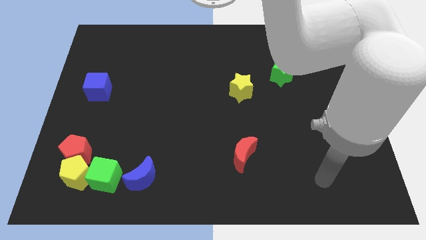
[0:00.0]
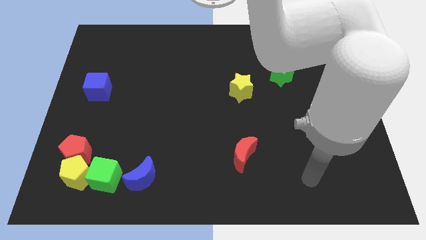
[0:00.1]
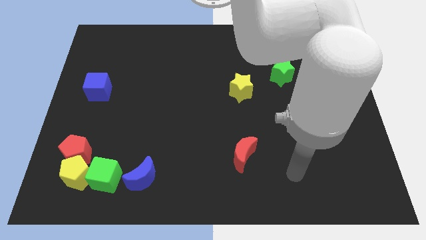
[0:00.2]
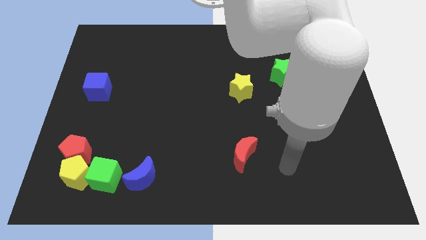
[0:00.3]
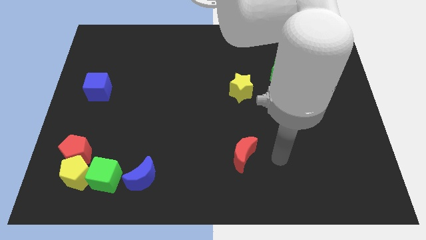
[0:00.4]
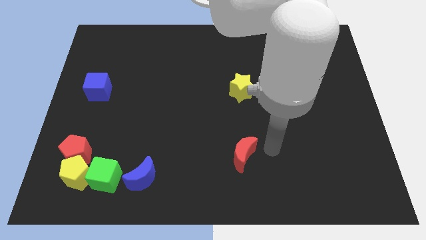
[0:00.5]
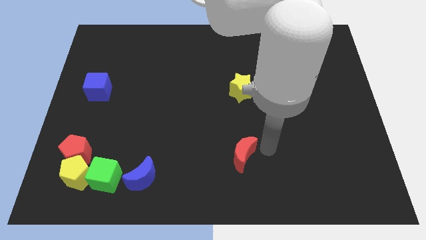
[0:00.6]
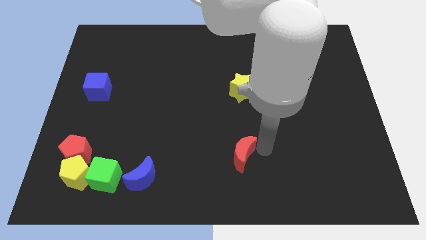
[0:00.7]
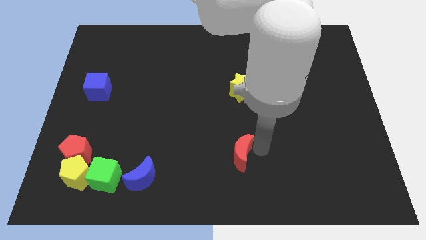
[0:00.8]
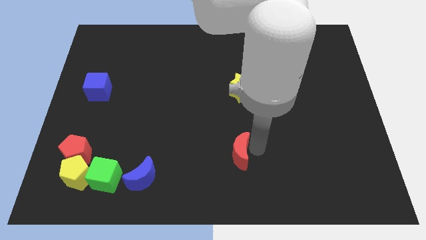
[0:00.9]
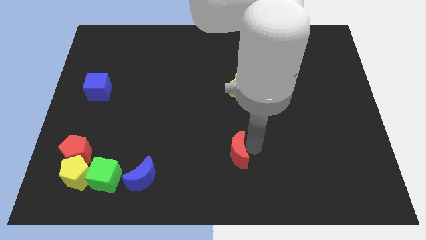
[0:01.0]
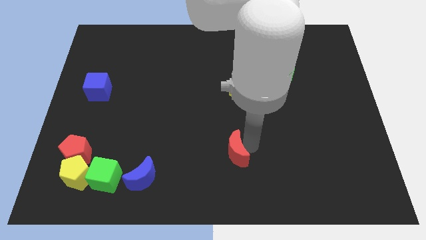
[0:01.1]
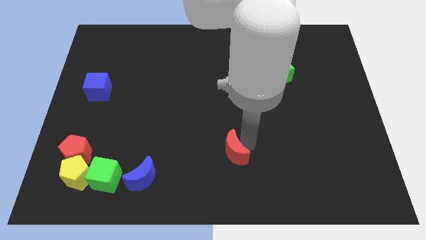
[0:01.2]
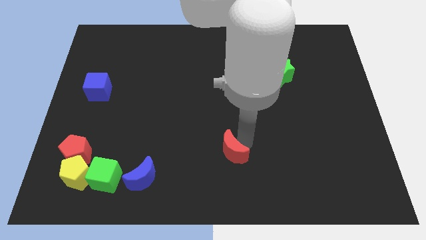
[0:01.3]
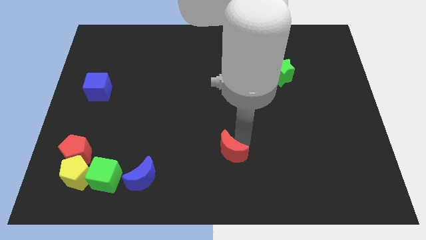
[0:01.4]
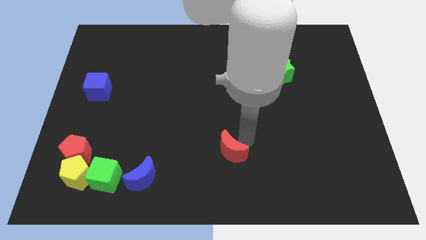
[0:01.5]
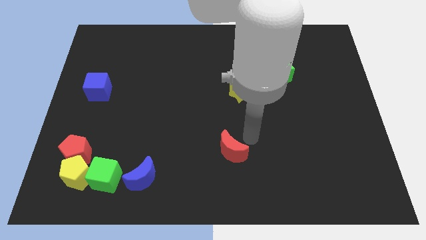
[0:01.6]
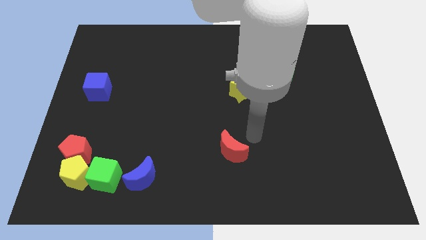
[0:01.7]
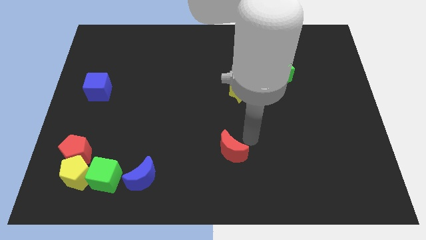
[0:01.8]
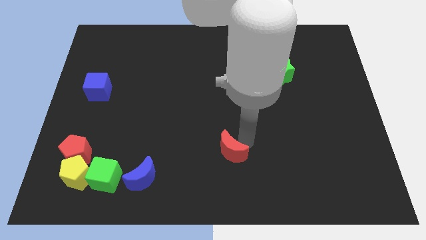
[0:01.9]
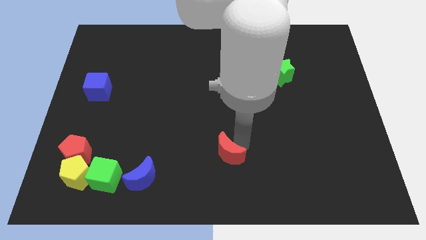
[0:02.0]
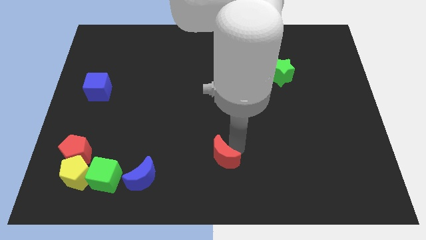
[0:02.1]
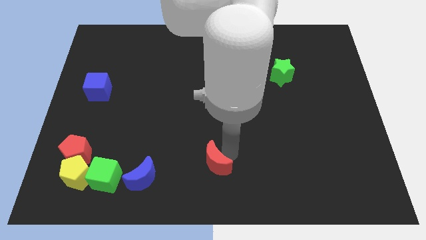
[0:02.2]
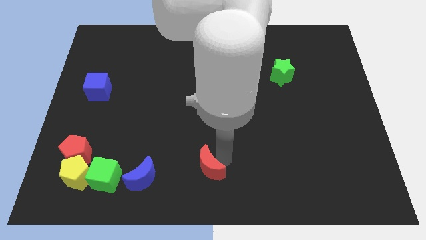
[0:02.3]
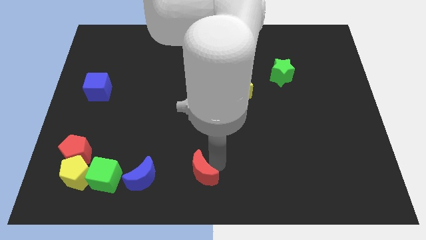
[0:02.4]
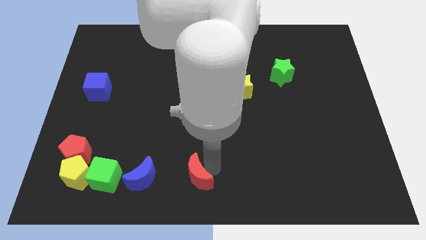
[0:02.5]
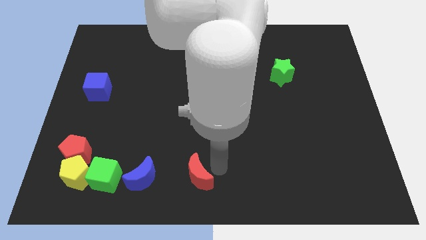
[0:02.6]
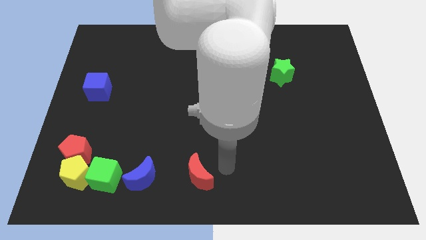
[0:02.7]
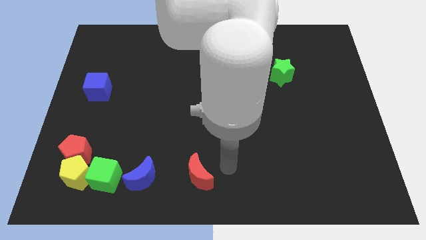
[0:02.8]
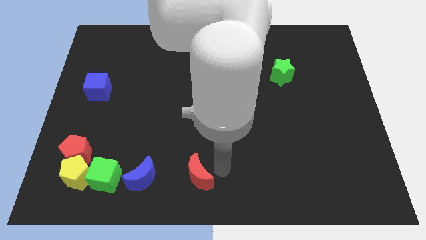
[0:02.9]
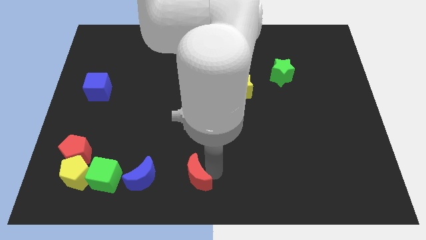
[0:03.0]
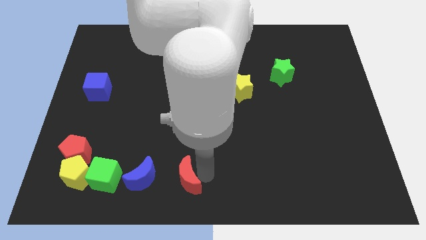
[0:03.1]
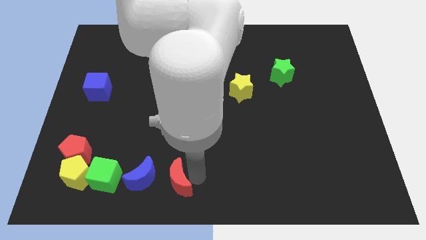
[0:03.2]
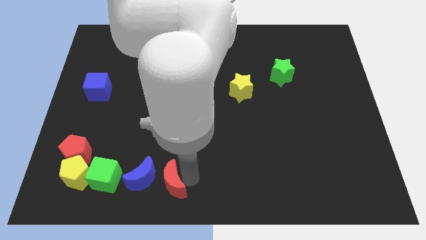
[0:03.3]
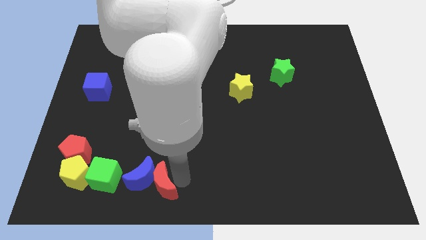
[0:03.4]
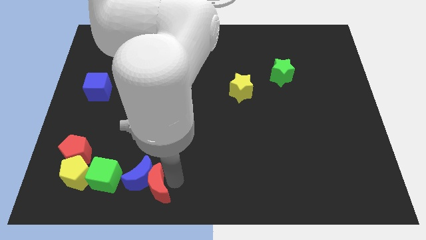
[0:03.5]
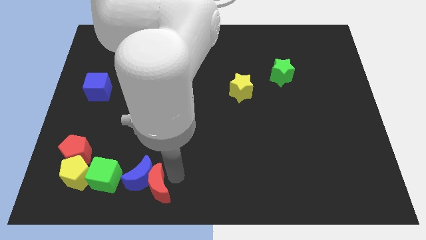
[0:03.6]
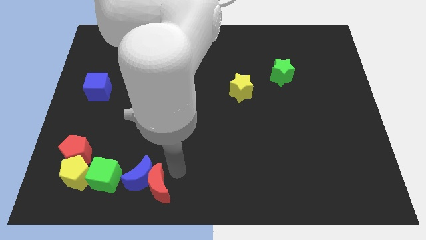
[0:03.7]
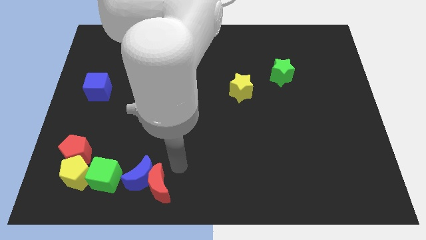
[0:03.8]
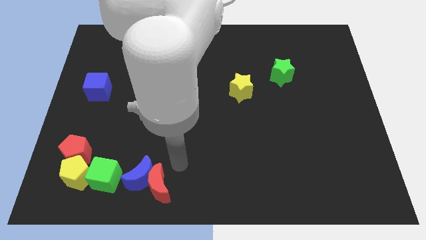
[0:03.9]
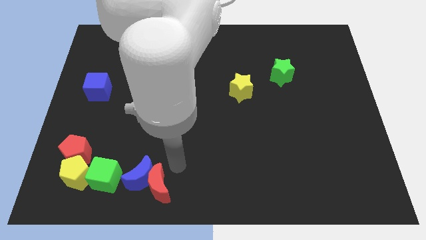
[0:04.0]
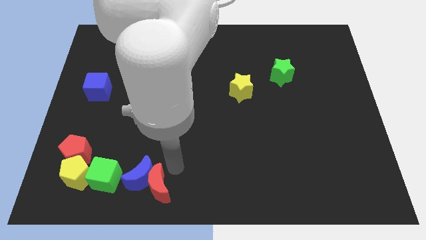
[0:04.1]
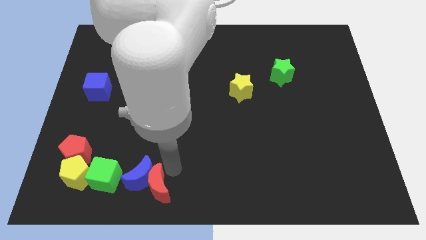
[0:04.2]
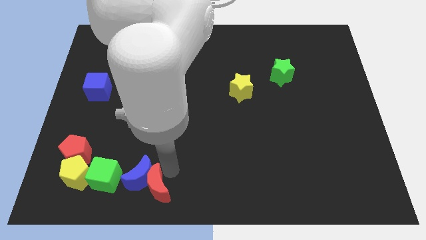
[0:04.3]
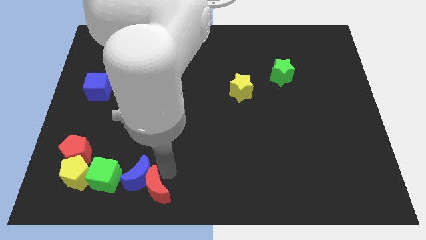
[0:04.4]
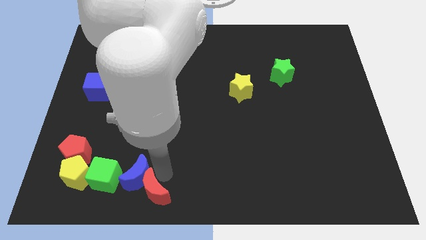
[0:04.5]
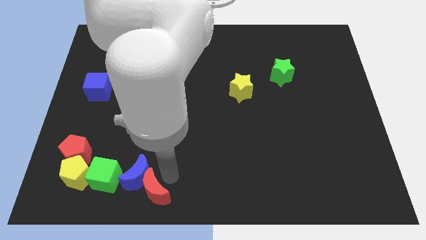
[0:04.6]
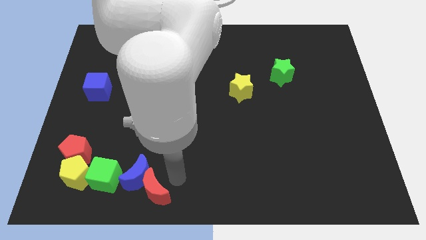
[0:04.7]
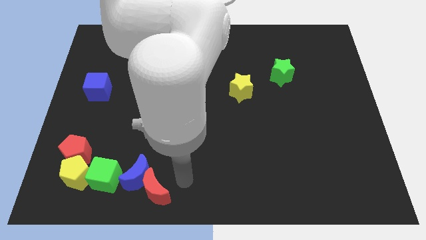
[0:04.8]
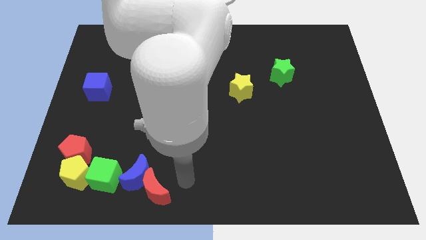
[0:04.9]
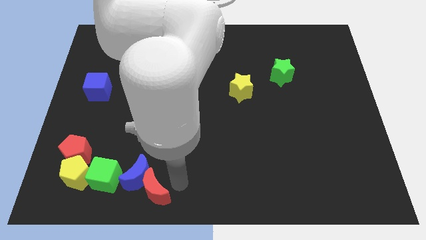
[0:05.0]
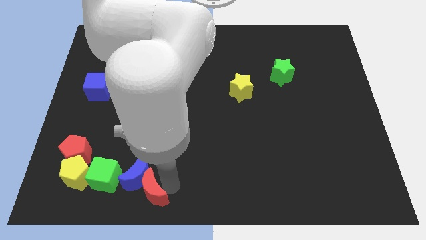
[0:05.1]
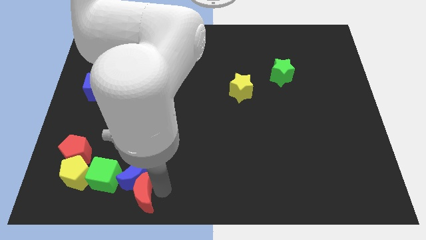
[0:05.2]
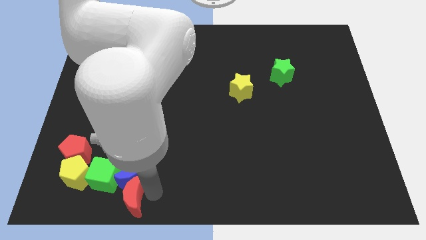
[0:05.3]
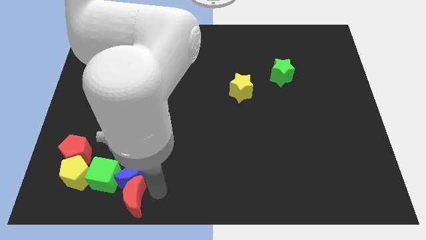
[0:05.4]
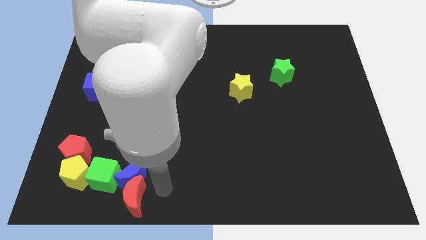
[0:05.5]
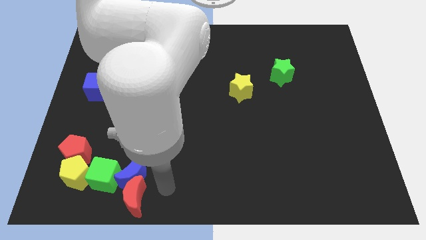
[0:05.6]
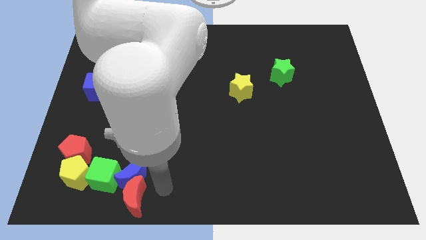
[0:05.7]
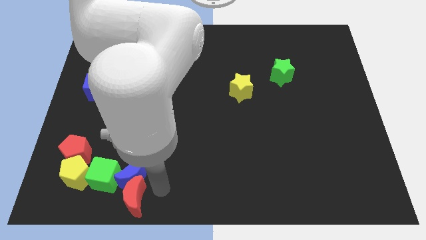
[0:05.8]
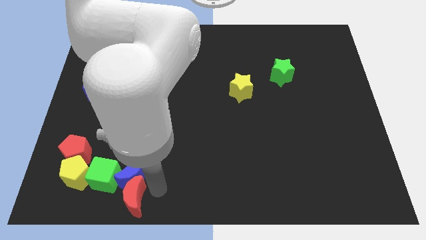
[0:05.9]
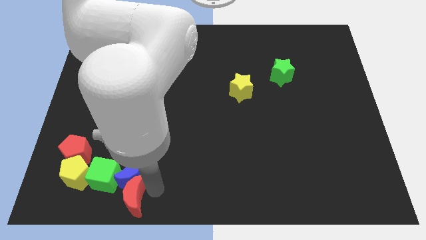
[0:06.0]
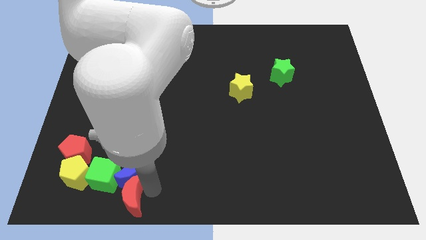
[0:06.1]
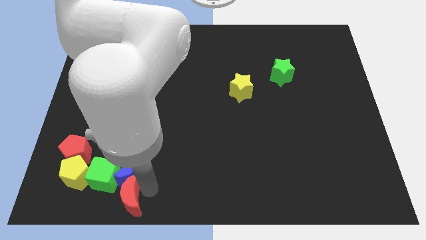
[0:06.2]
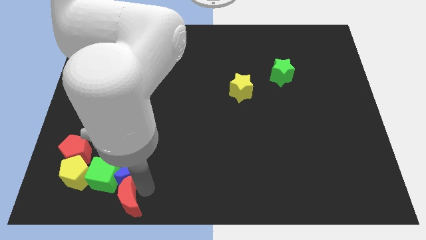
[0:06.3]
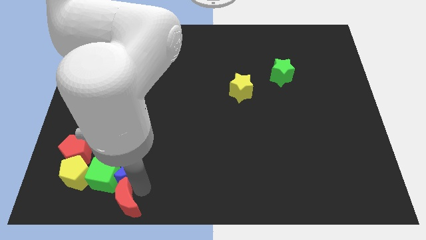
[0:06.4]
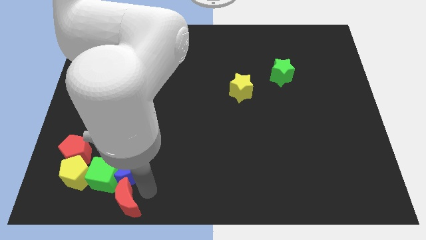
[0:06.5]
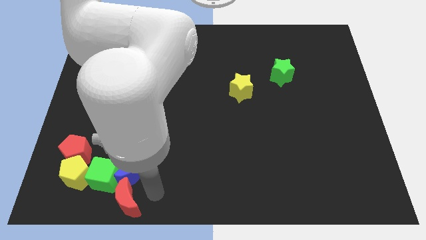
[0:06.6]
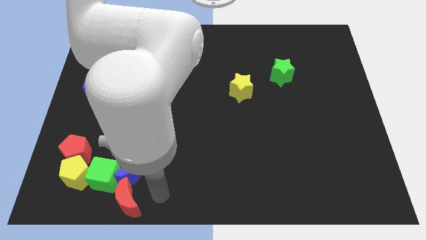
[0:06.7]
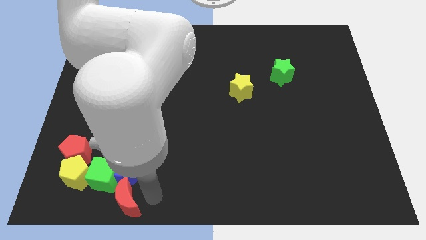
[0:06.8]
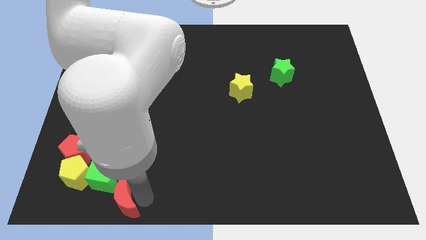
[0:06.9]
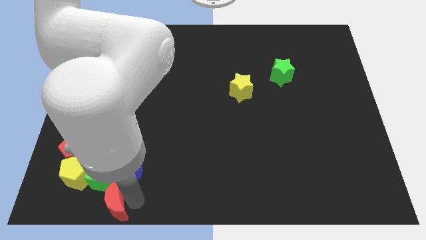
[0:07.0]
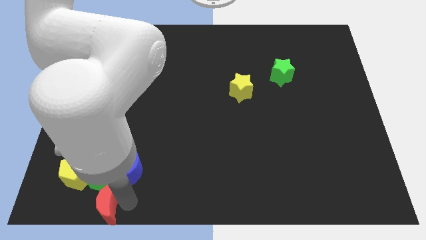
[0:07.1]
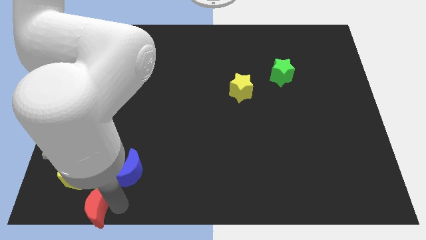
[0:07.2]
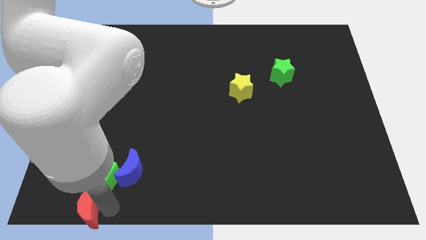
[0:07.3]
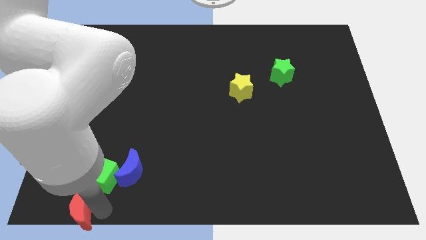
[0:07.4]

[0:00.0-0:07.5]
push the red moon to the bottom left of the board
